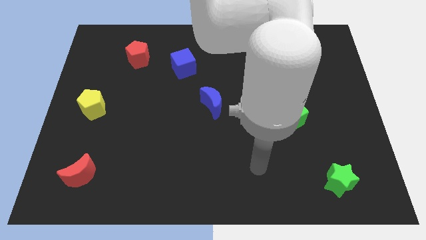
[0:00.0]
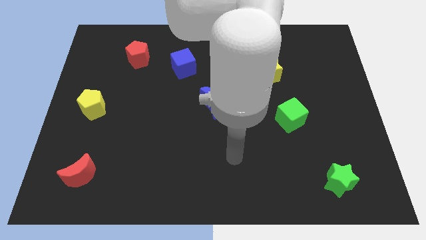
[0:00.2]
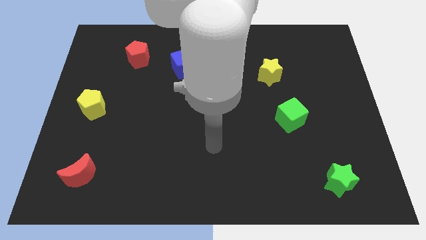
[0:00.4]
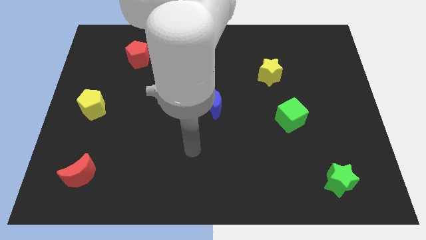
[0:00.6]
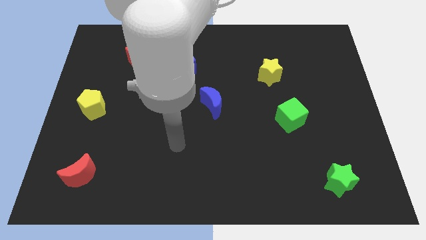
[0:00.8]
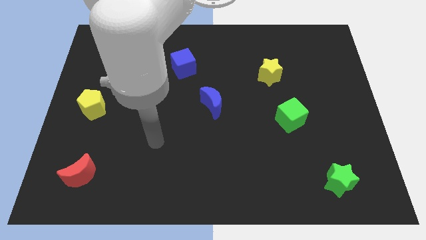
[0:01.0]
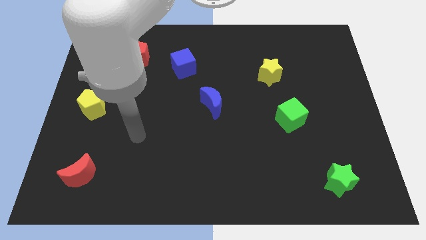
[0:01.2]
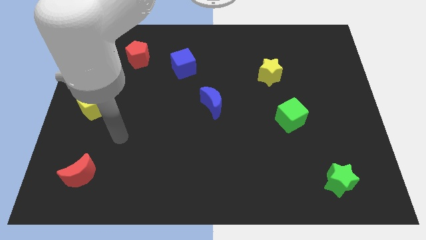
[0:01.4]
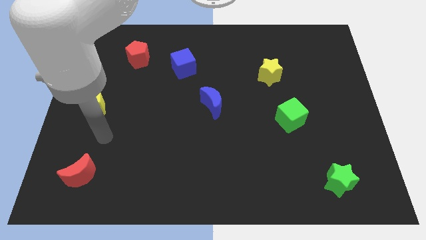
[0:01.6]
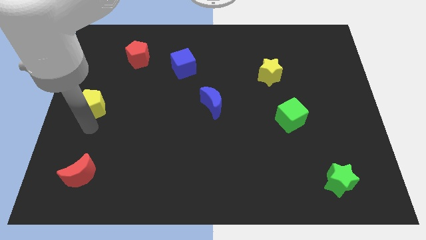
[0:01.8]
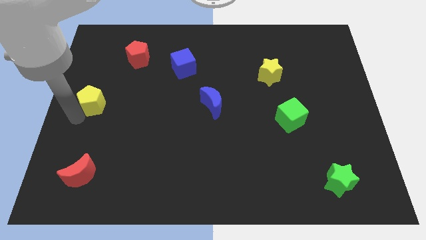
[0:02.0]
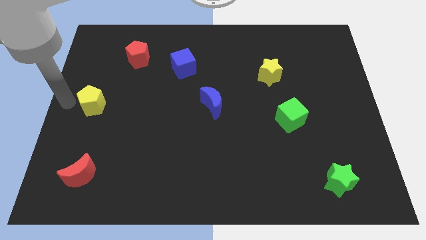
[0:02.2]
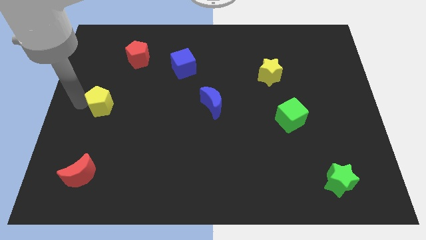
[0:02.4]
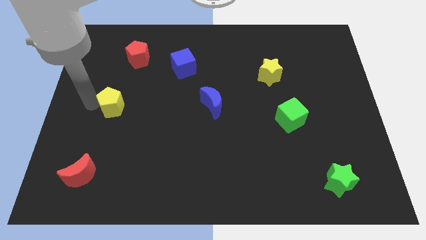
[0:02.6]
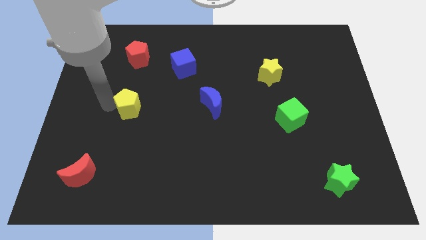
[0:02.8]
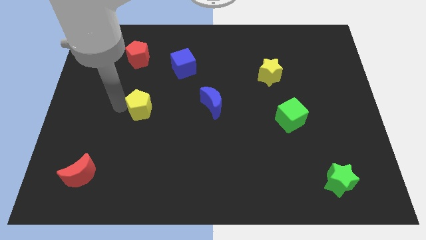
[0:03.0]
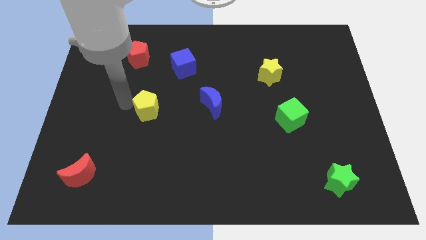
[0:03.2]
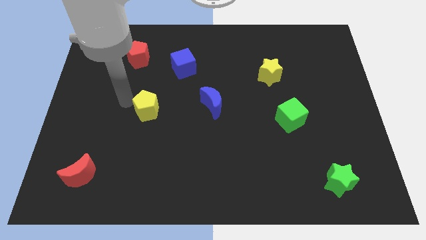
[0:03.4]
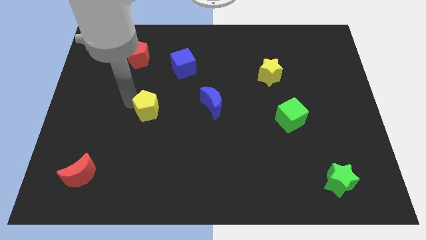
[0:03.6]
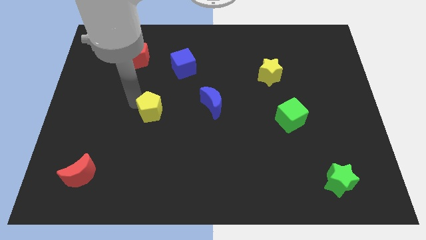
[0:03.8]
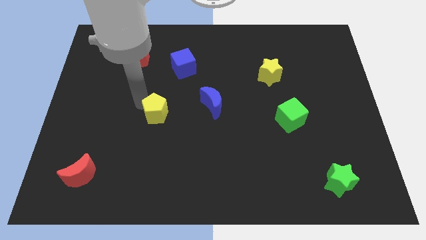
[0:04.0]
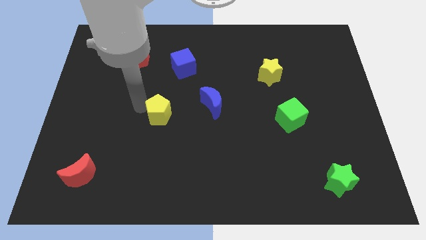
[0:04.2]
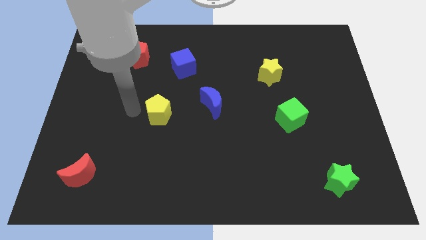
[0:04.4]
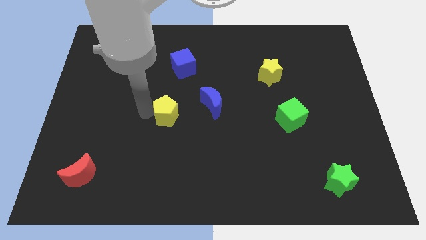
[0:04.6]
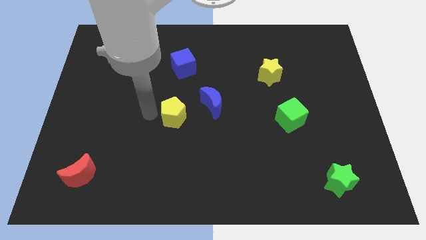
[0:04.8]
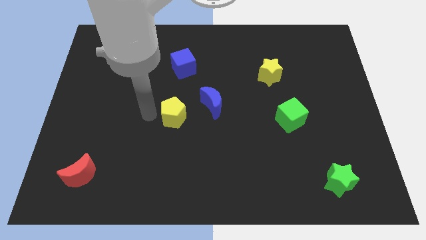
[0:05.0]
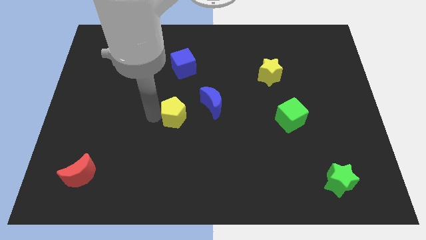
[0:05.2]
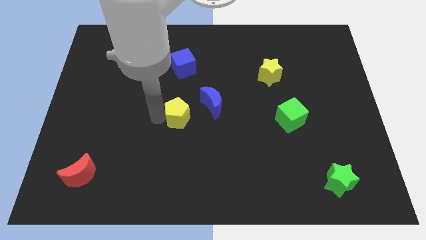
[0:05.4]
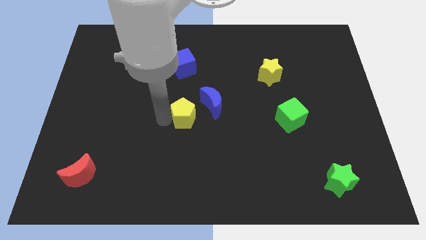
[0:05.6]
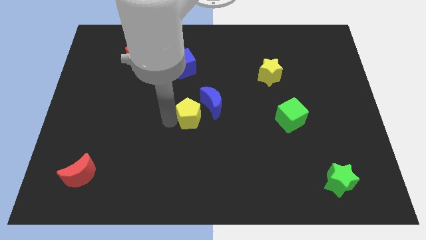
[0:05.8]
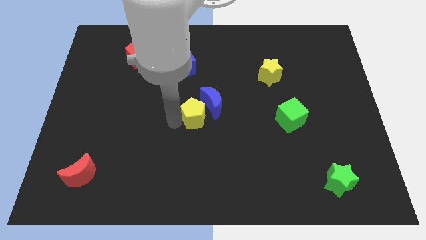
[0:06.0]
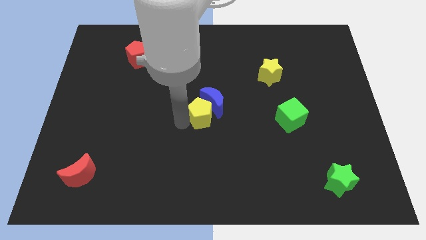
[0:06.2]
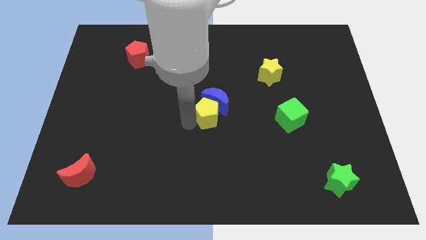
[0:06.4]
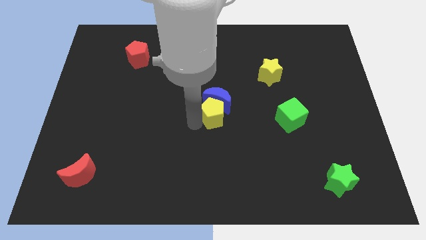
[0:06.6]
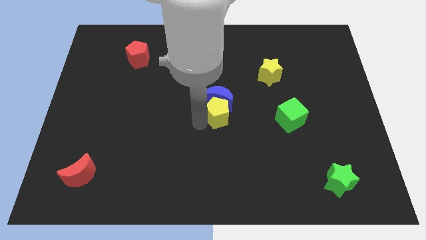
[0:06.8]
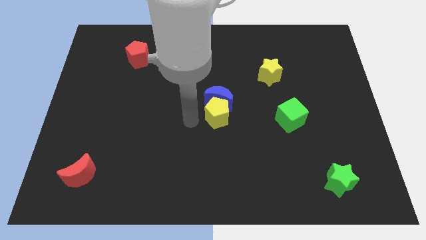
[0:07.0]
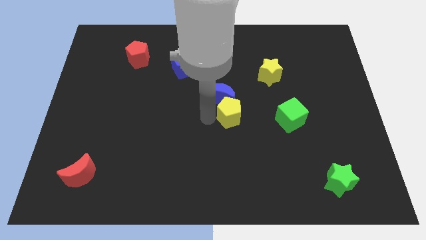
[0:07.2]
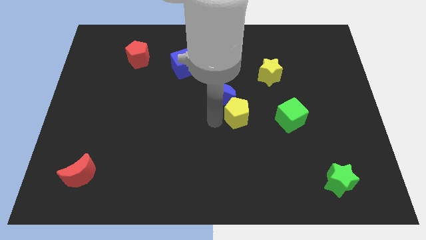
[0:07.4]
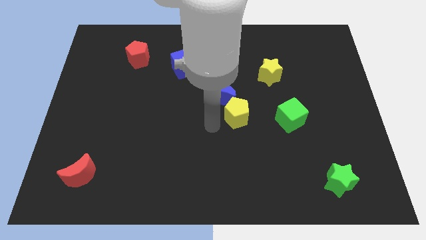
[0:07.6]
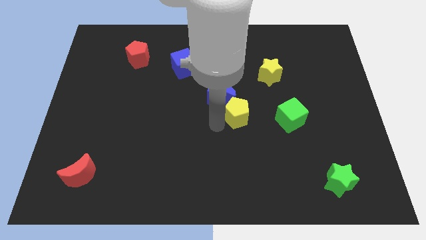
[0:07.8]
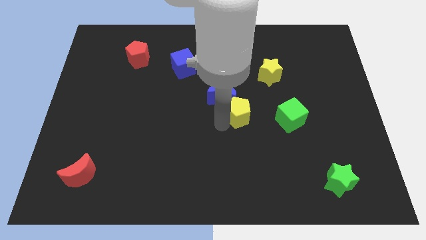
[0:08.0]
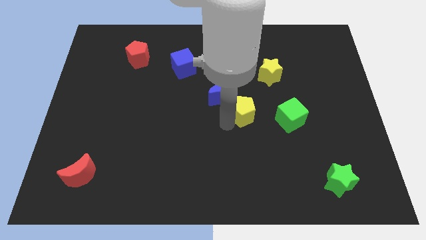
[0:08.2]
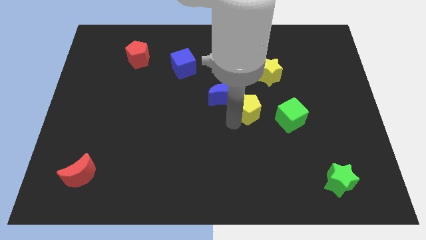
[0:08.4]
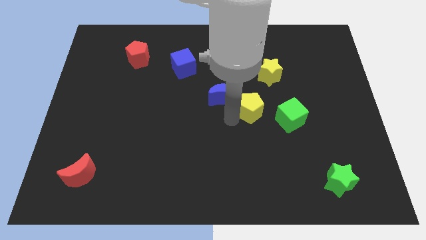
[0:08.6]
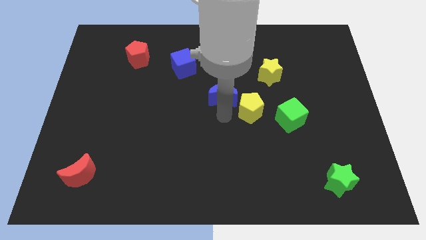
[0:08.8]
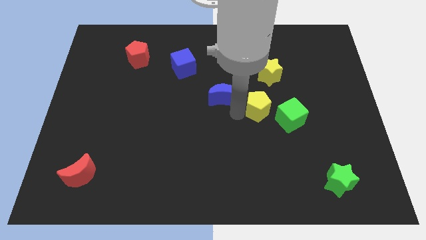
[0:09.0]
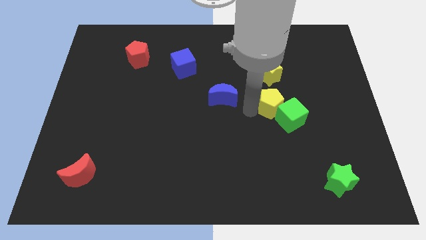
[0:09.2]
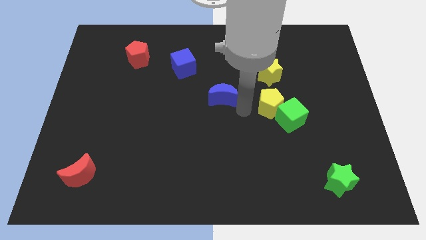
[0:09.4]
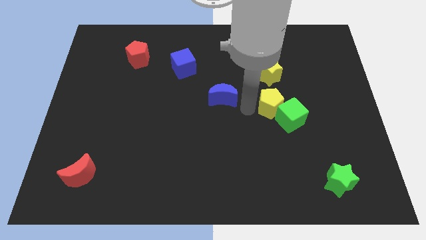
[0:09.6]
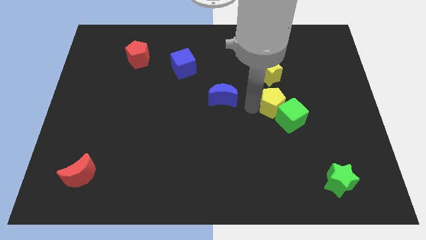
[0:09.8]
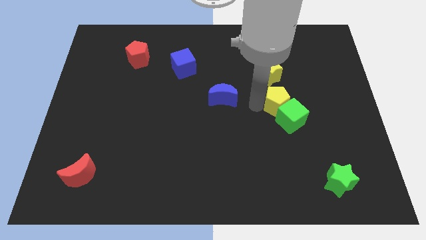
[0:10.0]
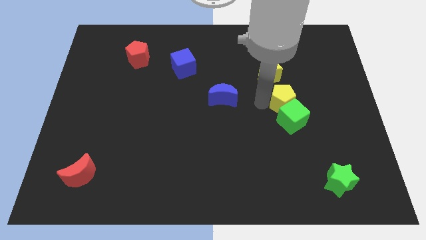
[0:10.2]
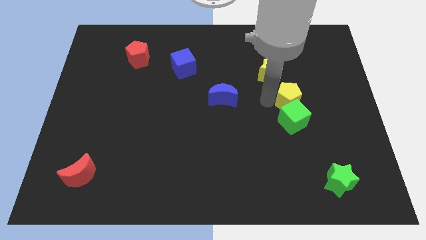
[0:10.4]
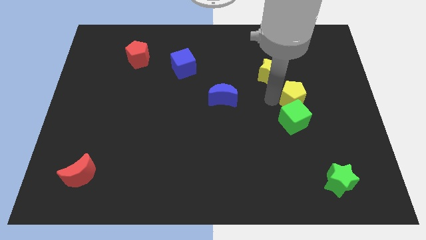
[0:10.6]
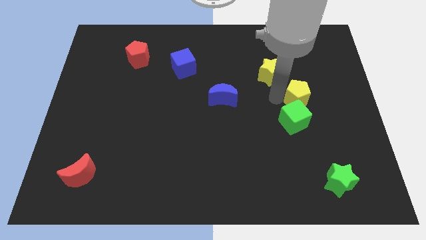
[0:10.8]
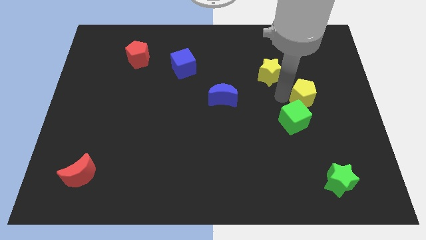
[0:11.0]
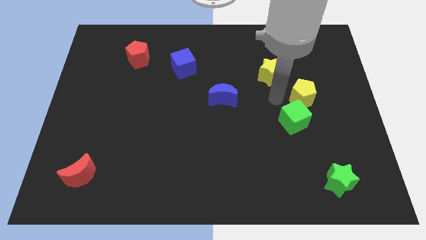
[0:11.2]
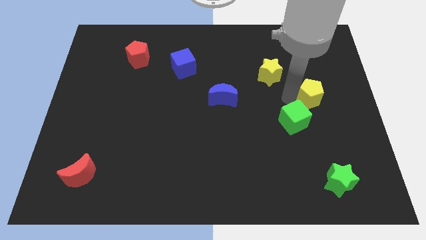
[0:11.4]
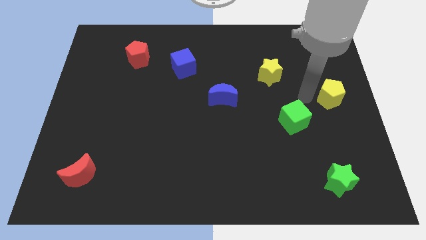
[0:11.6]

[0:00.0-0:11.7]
move the yellow pentagon to the right side of the board
